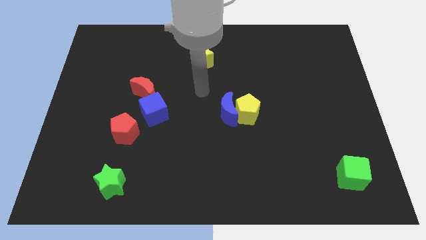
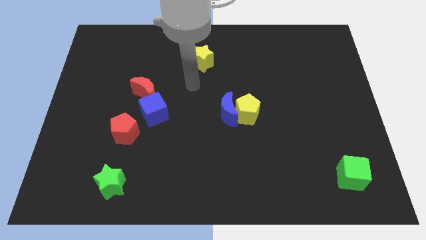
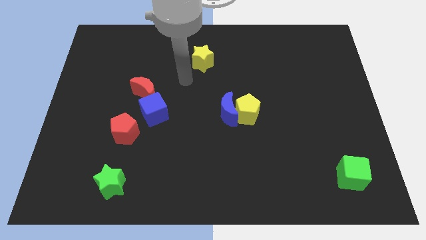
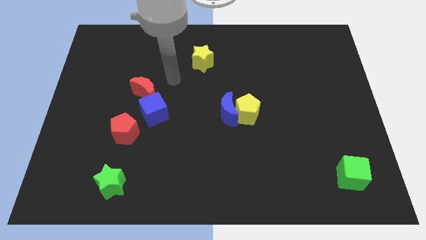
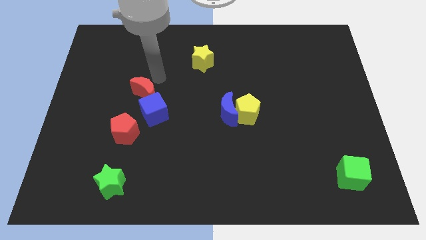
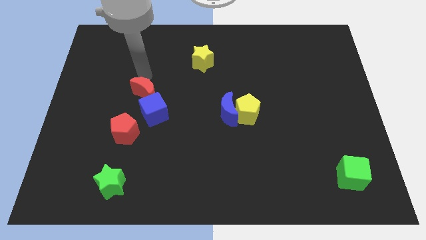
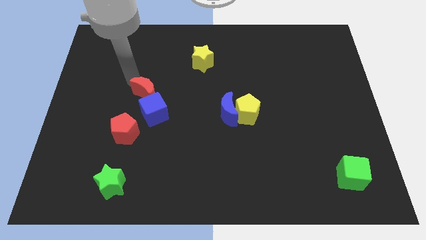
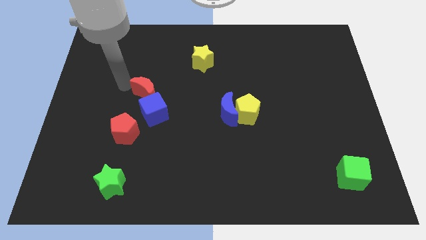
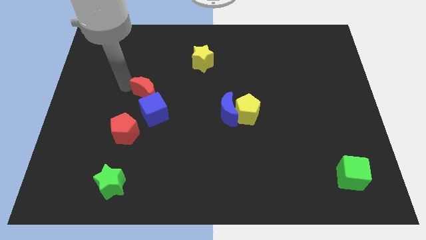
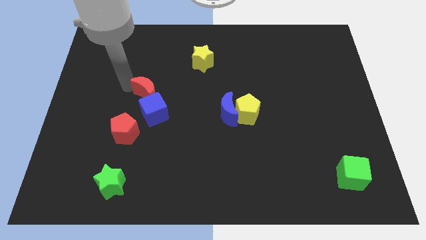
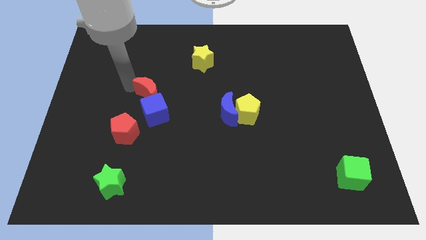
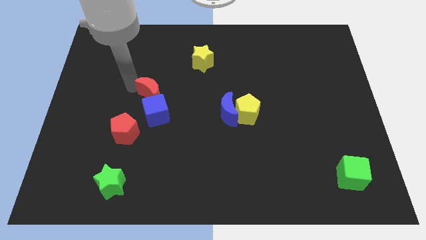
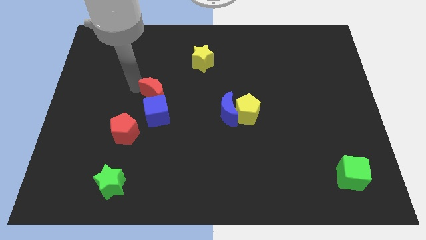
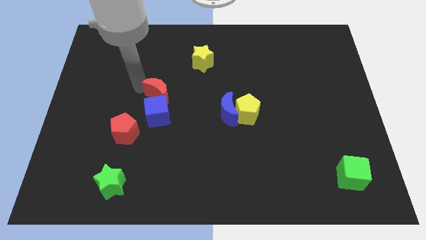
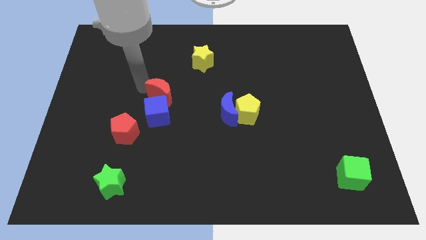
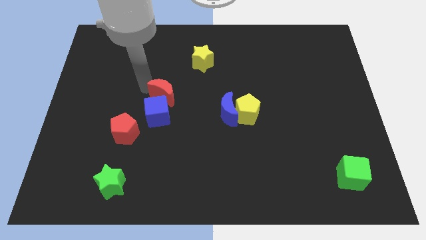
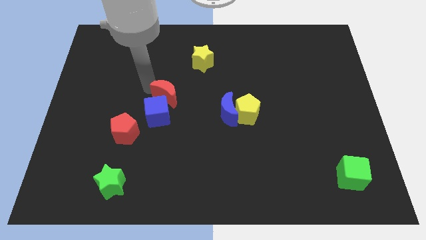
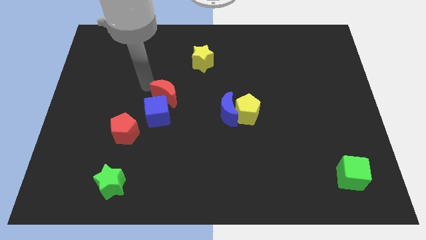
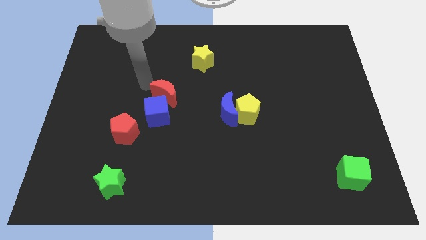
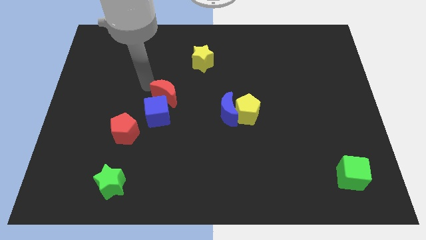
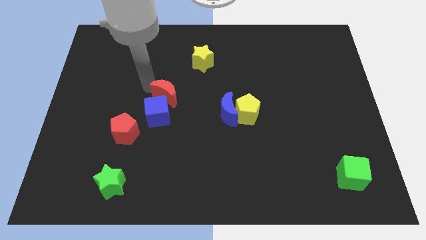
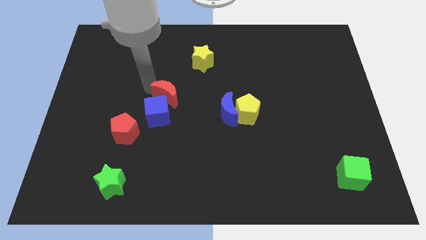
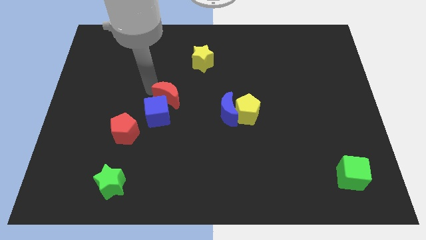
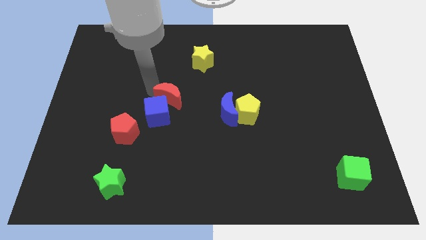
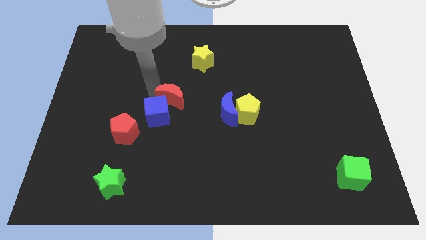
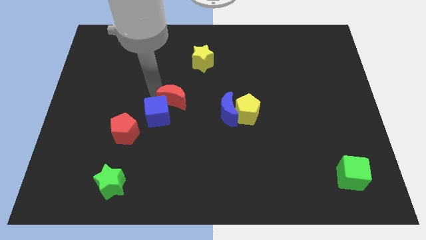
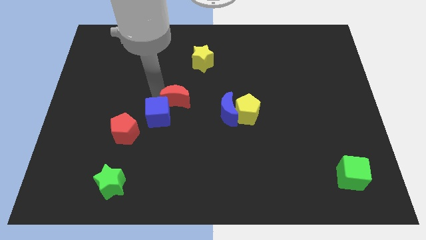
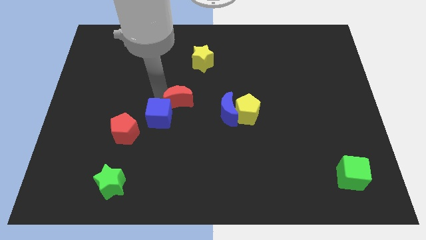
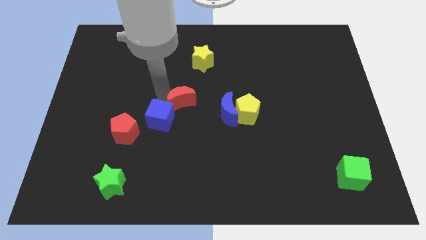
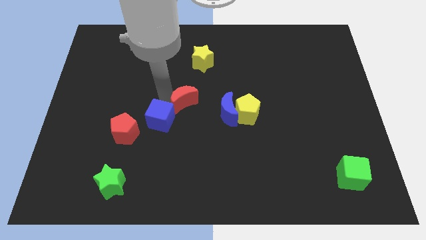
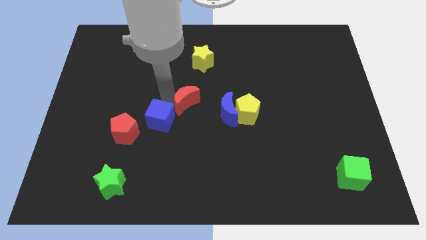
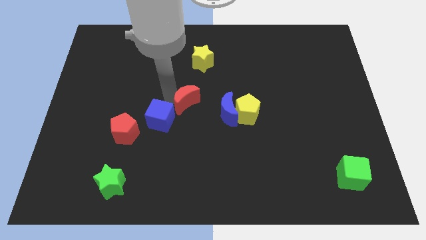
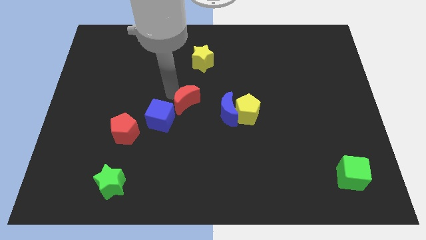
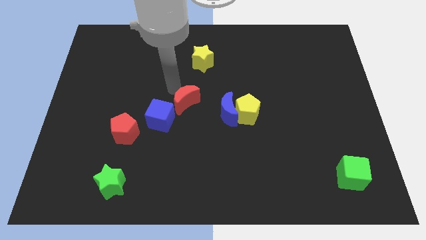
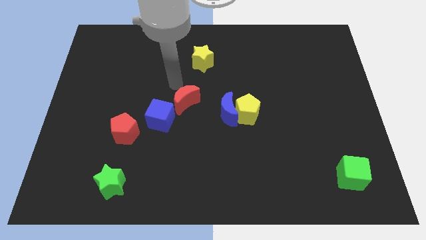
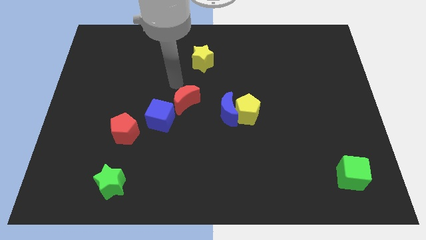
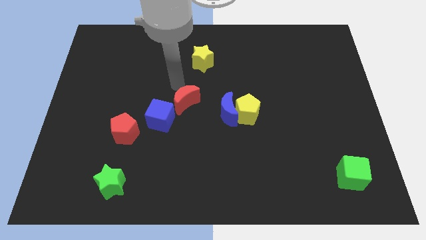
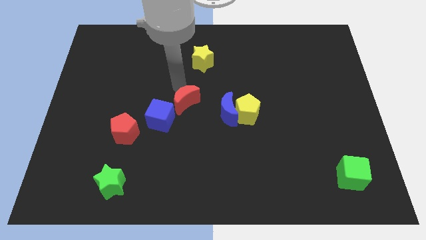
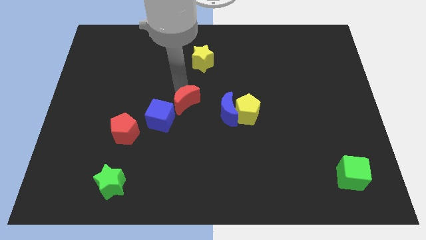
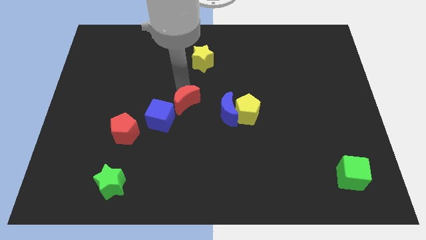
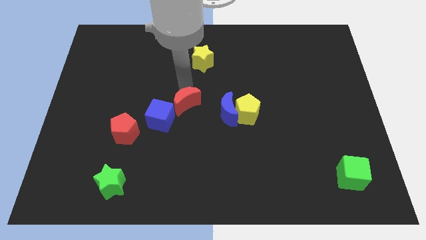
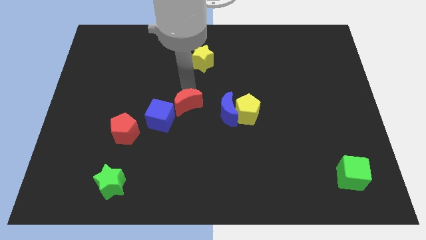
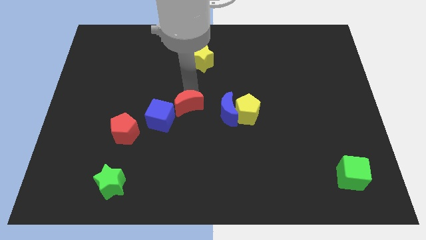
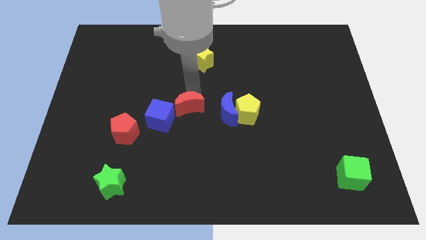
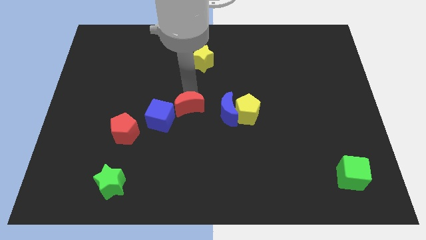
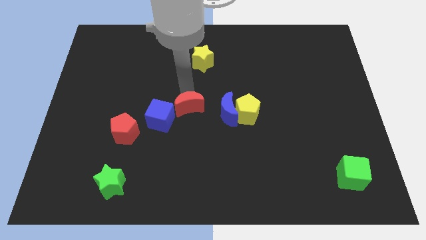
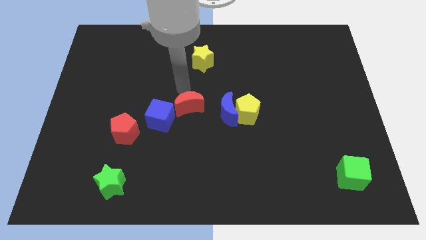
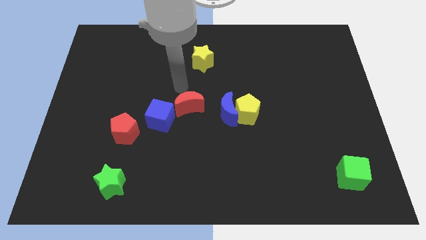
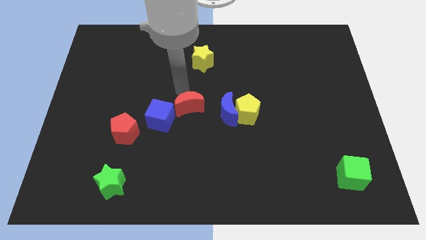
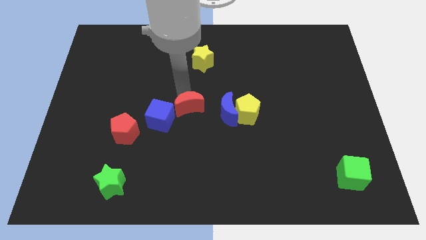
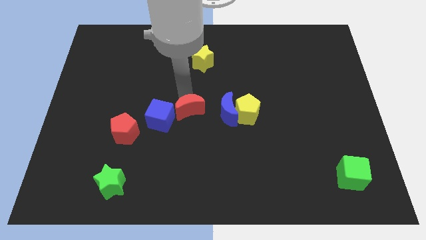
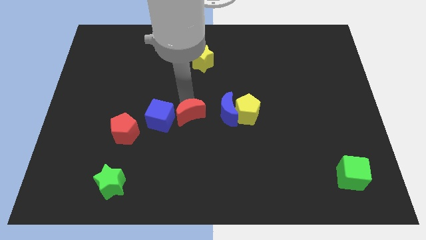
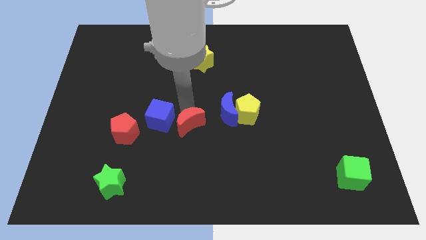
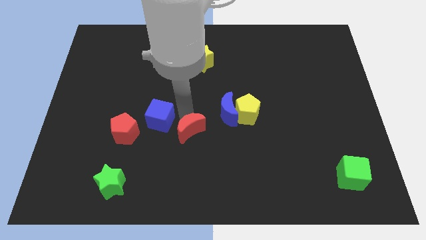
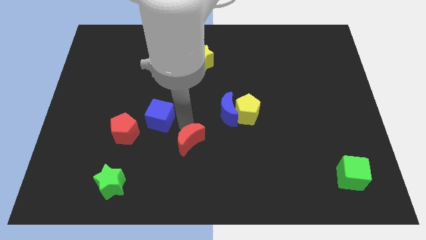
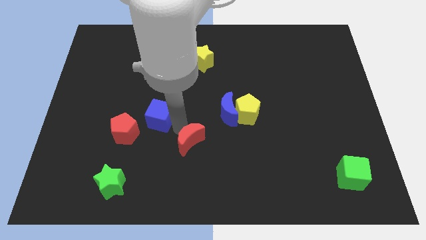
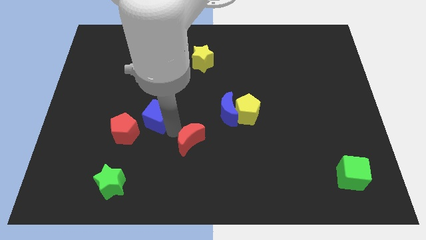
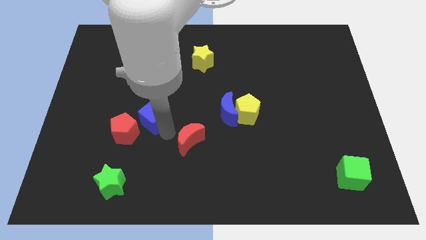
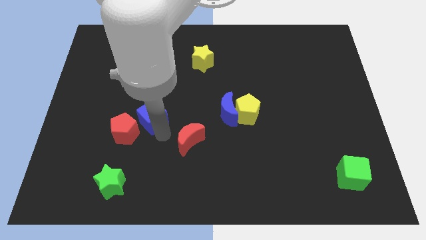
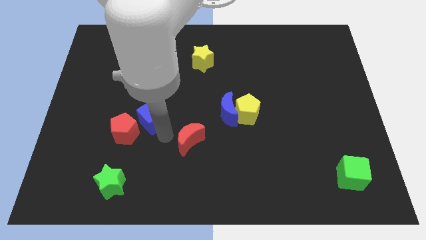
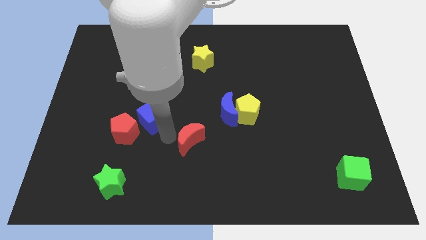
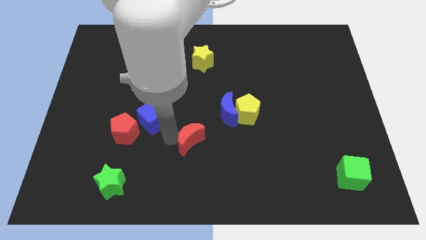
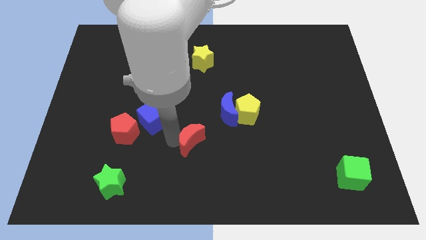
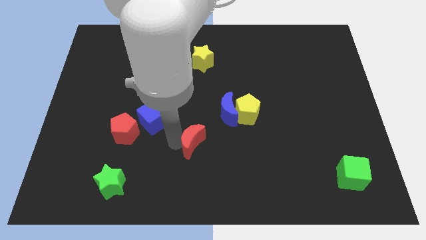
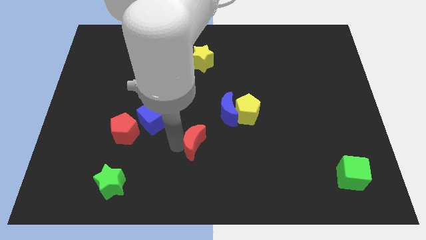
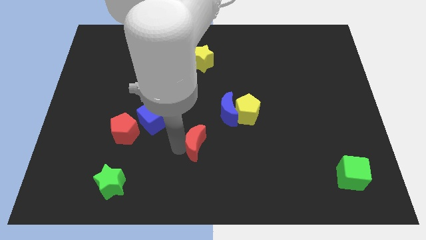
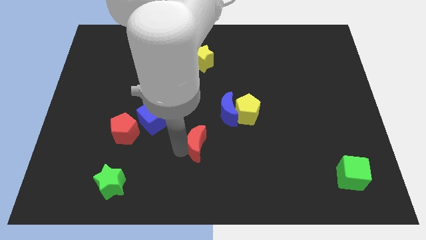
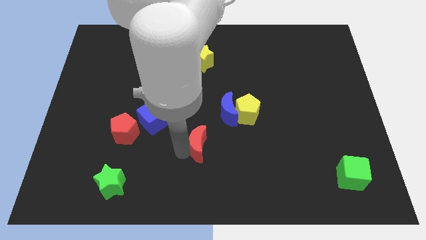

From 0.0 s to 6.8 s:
push the red moon downwards and then right

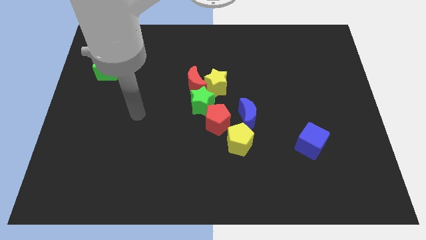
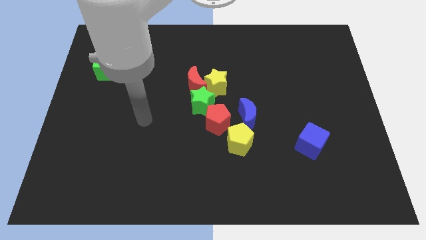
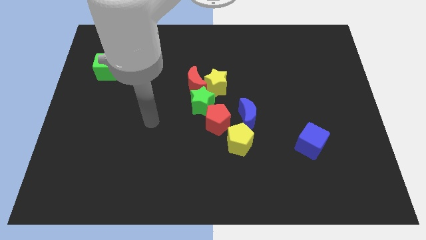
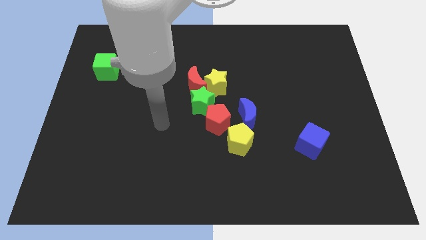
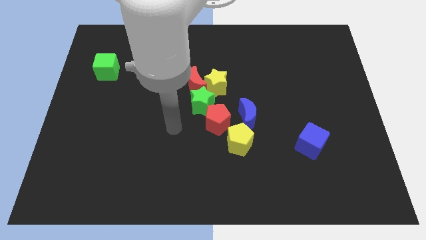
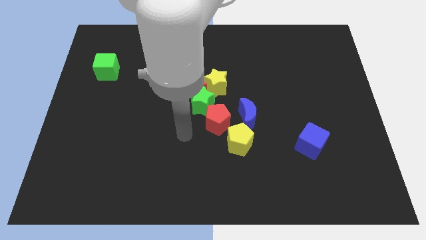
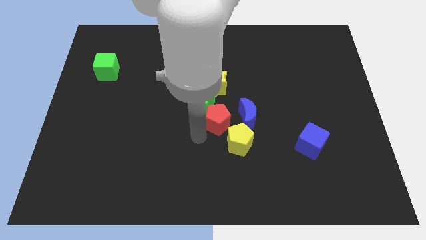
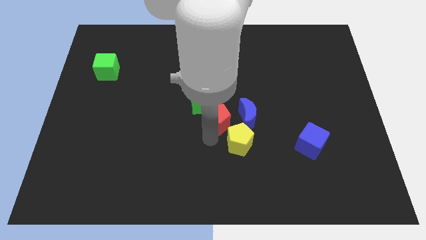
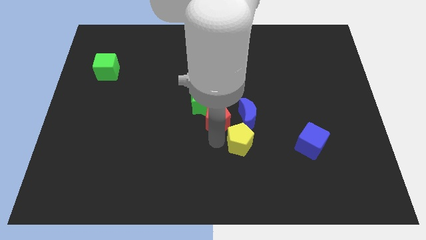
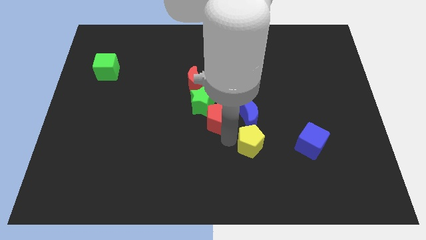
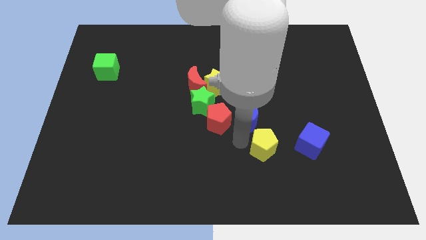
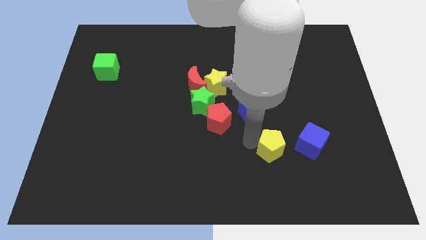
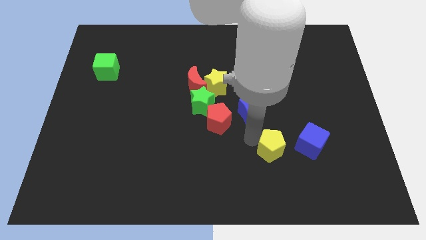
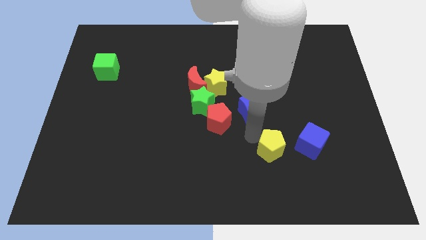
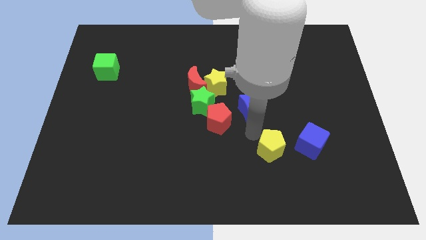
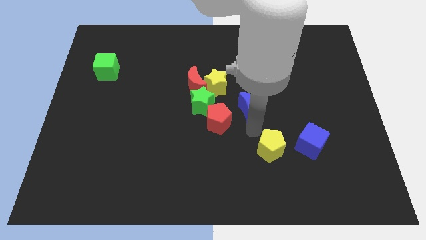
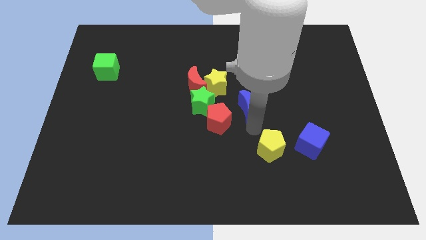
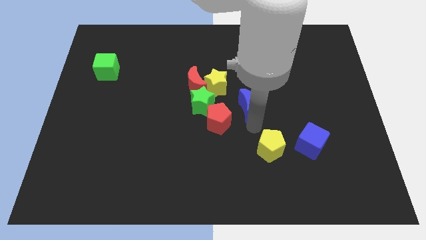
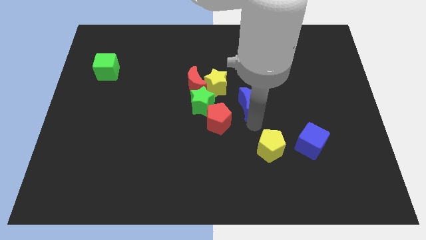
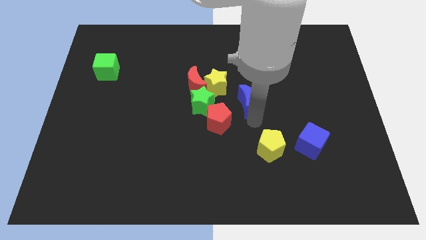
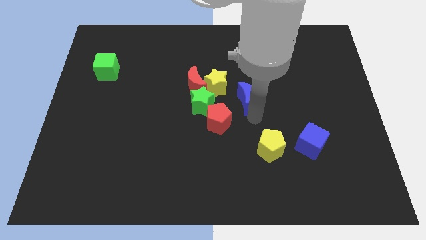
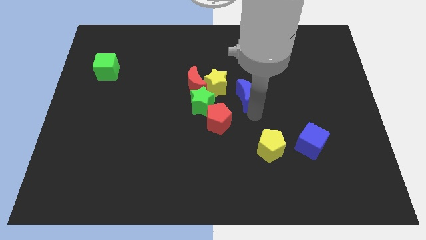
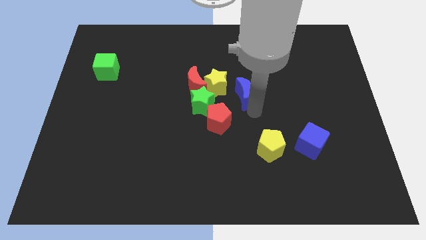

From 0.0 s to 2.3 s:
slide the blue moon upwards slightly
